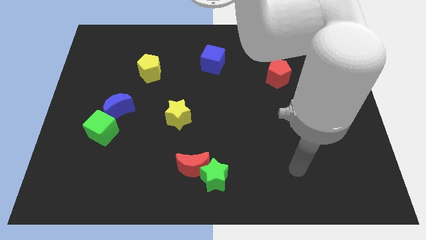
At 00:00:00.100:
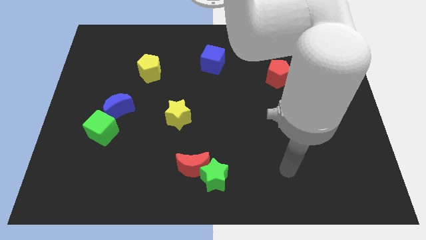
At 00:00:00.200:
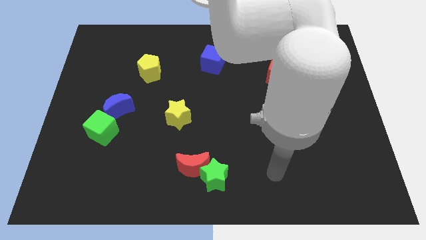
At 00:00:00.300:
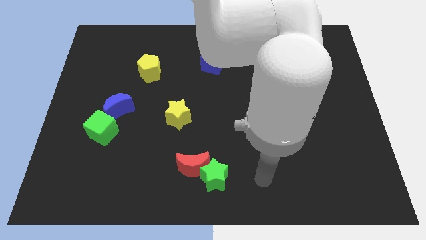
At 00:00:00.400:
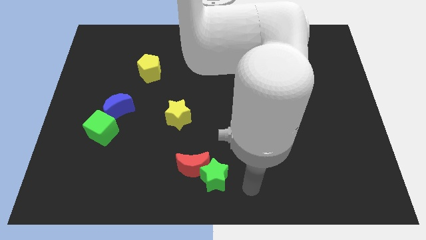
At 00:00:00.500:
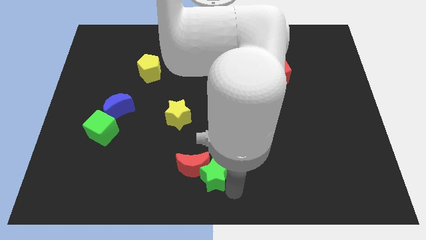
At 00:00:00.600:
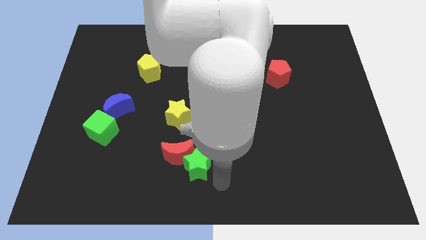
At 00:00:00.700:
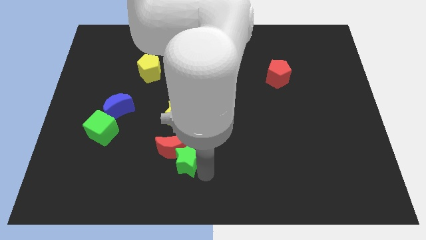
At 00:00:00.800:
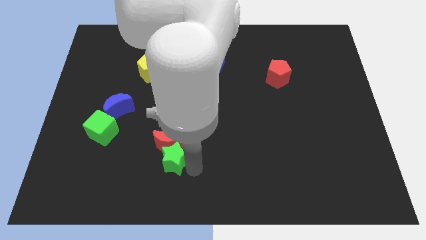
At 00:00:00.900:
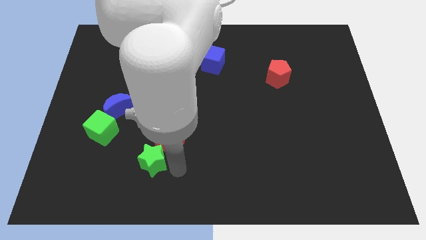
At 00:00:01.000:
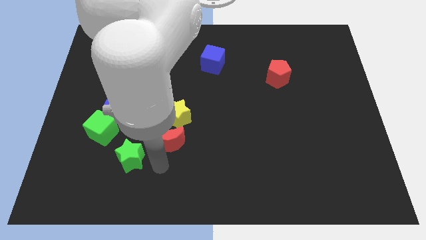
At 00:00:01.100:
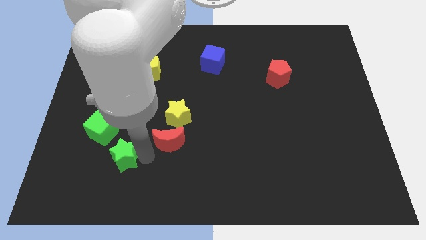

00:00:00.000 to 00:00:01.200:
pull the red moon apart from the green star

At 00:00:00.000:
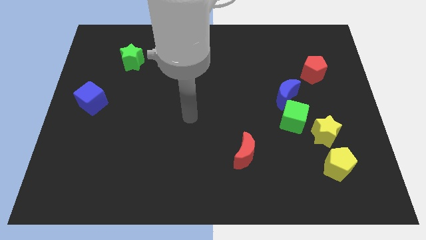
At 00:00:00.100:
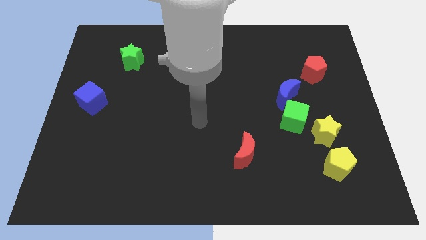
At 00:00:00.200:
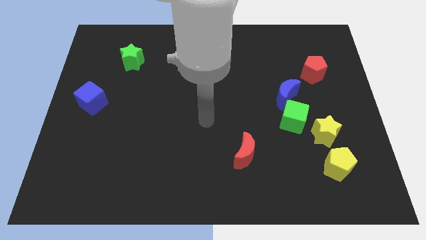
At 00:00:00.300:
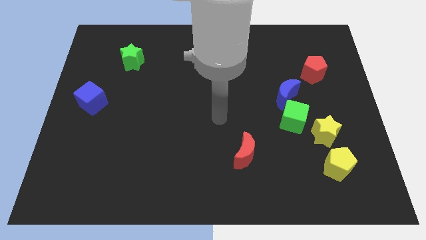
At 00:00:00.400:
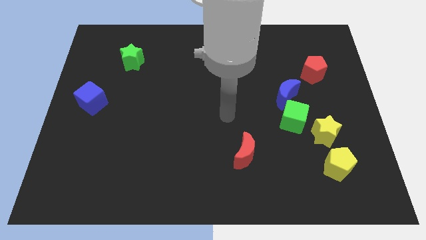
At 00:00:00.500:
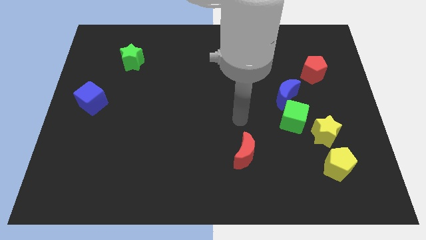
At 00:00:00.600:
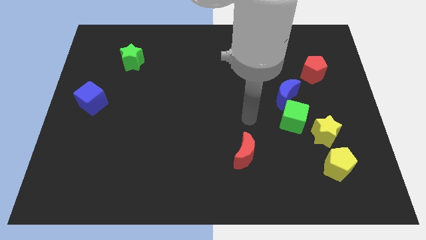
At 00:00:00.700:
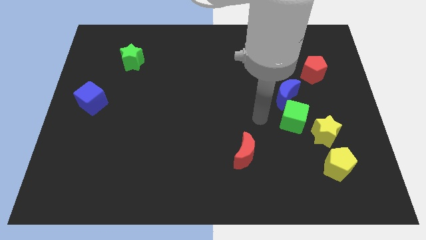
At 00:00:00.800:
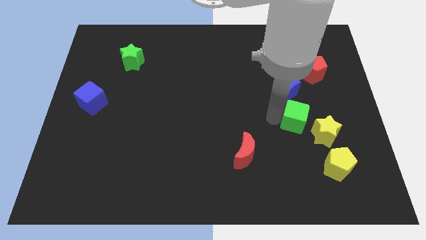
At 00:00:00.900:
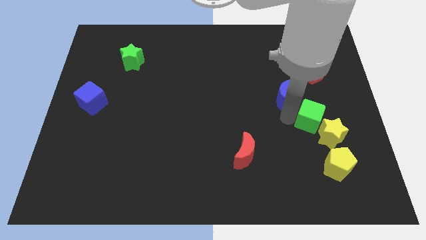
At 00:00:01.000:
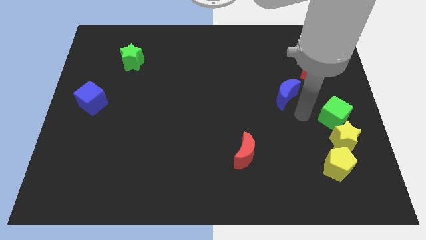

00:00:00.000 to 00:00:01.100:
separate the blue moon from the green cube

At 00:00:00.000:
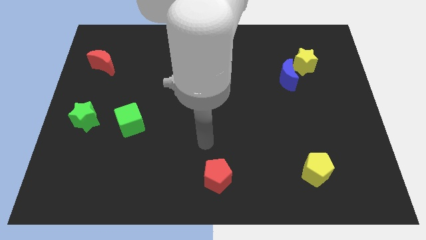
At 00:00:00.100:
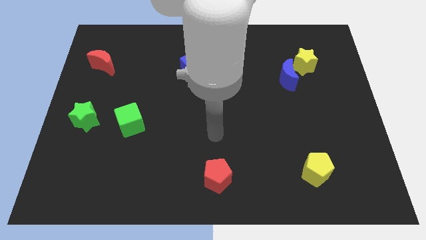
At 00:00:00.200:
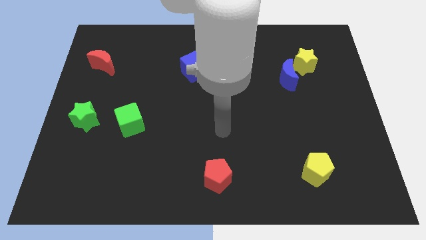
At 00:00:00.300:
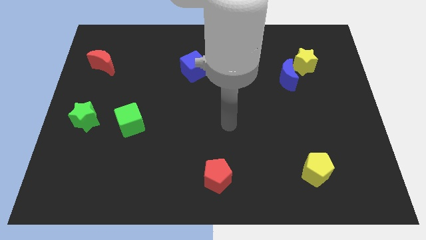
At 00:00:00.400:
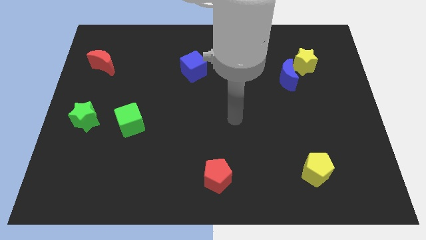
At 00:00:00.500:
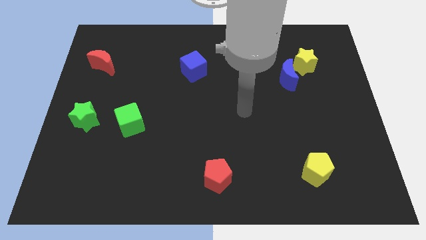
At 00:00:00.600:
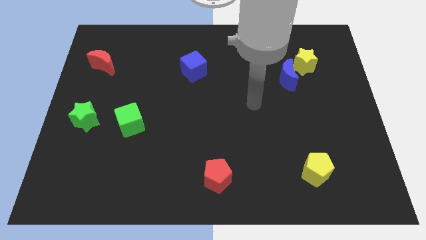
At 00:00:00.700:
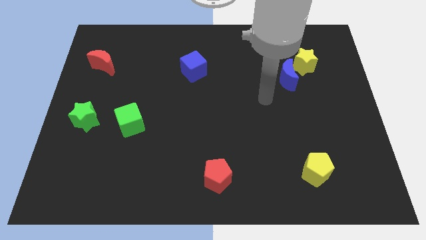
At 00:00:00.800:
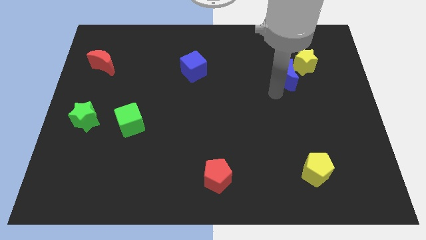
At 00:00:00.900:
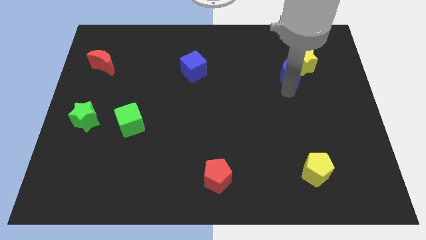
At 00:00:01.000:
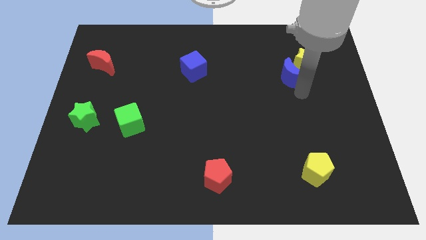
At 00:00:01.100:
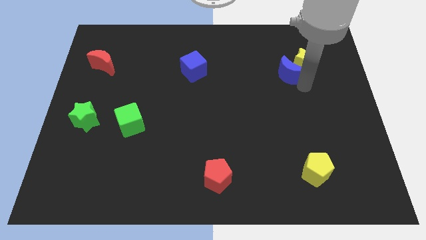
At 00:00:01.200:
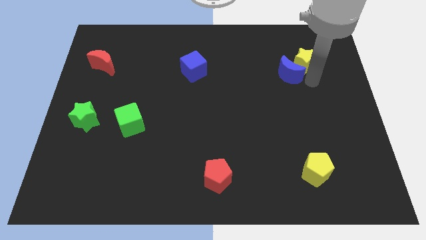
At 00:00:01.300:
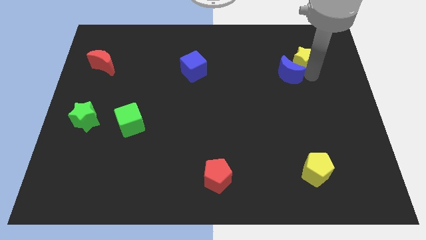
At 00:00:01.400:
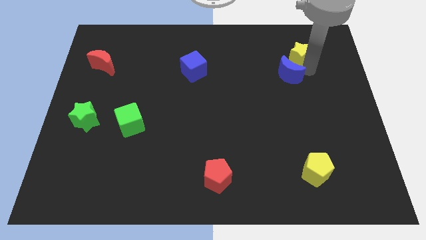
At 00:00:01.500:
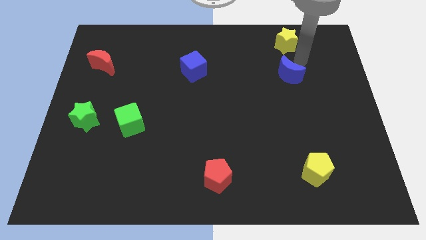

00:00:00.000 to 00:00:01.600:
separate the blue moon from the yellow star

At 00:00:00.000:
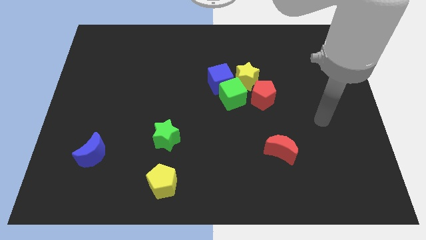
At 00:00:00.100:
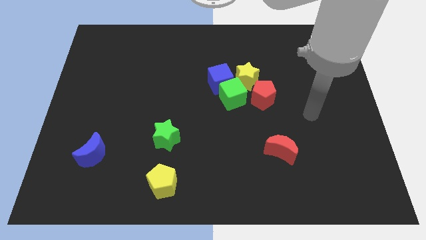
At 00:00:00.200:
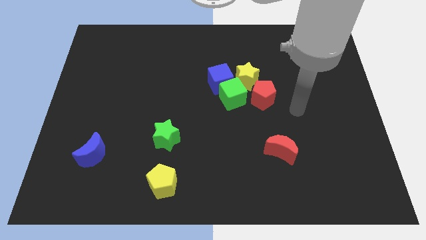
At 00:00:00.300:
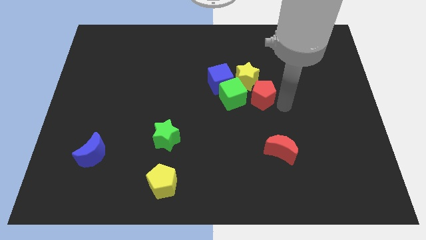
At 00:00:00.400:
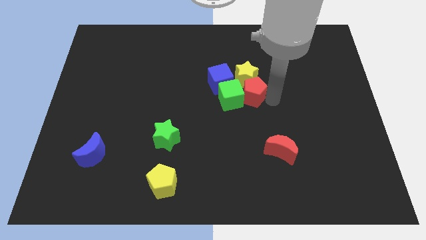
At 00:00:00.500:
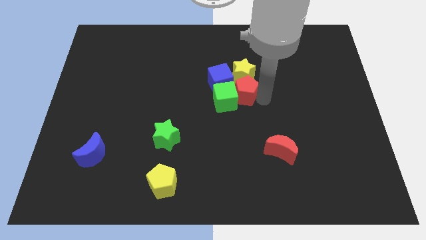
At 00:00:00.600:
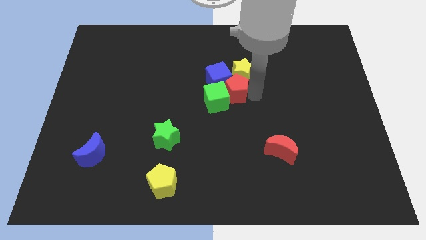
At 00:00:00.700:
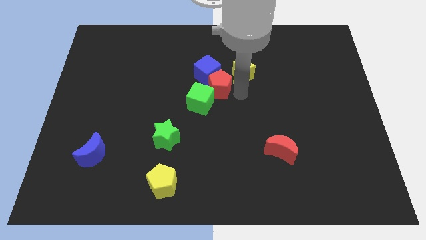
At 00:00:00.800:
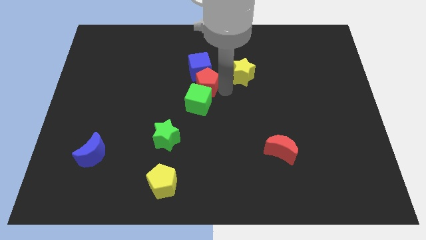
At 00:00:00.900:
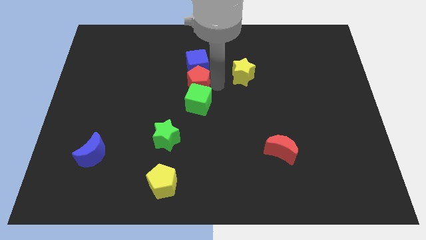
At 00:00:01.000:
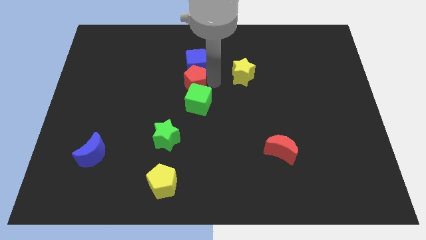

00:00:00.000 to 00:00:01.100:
separate the blue cube from the green cube and yellow star

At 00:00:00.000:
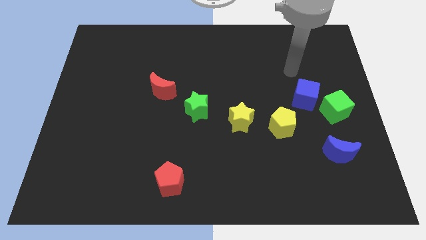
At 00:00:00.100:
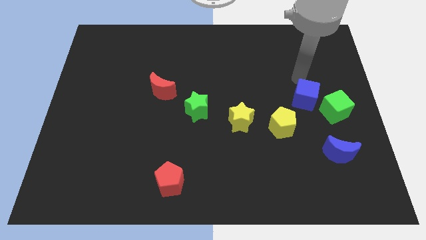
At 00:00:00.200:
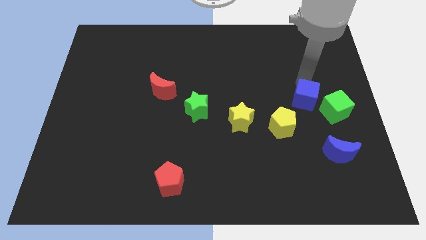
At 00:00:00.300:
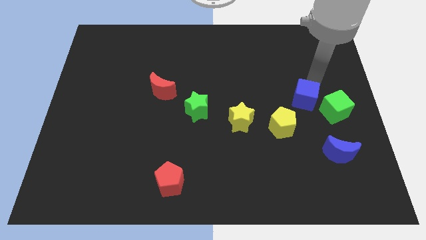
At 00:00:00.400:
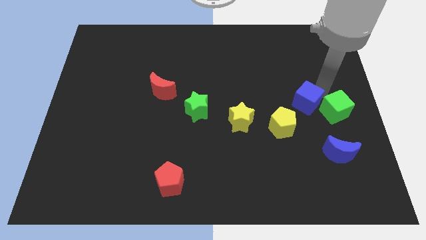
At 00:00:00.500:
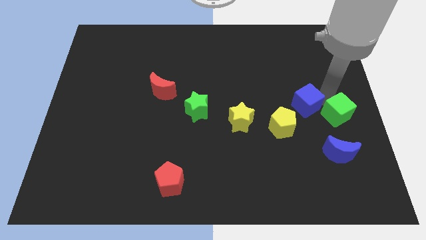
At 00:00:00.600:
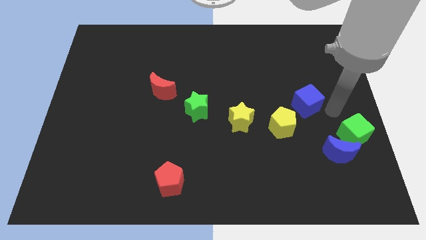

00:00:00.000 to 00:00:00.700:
separate the blue cube from the green cube

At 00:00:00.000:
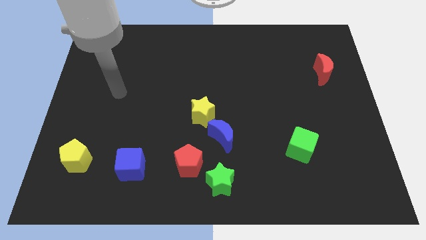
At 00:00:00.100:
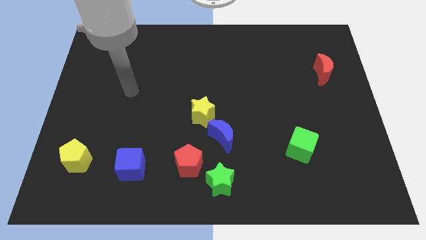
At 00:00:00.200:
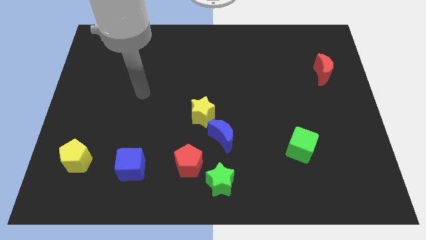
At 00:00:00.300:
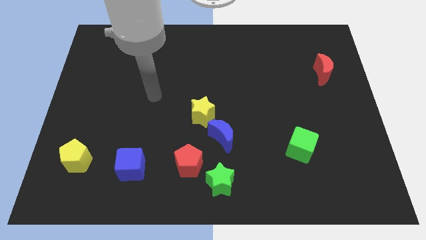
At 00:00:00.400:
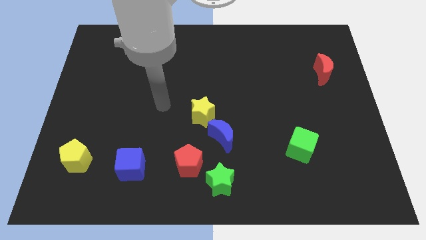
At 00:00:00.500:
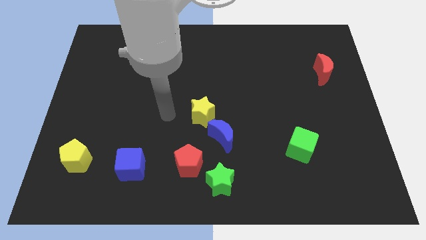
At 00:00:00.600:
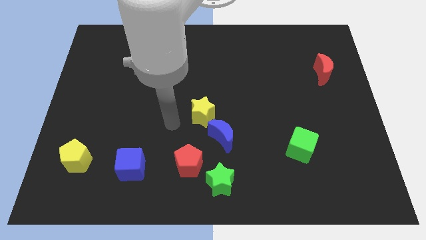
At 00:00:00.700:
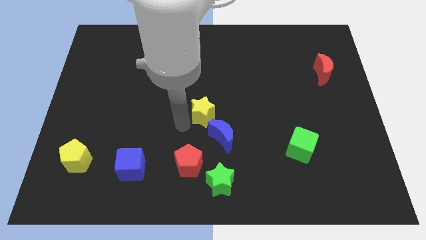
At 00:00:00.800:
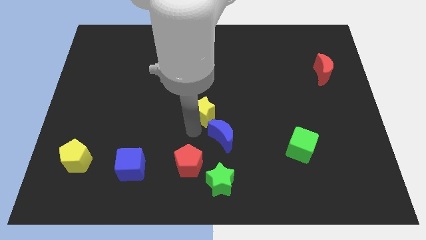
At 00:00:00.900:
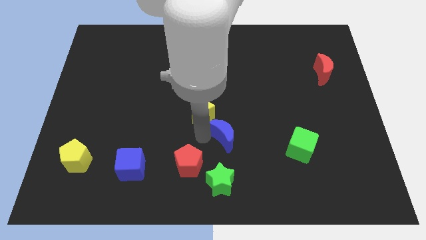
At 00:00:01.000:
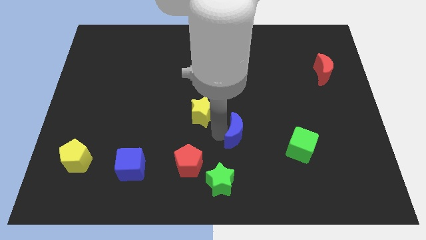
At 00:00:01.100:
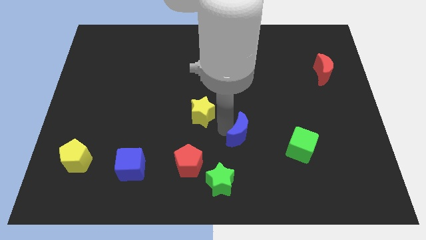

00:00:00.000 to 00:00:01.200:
move the yellow star away from the blue moon

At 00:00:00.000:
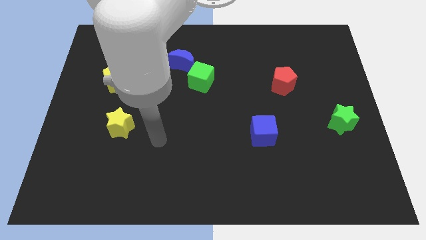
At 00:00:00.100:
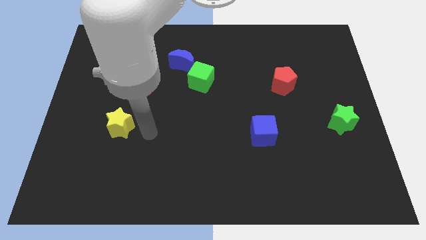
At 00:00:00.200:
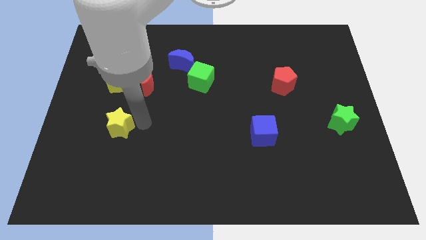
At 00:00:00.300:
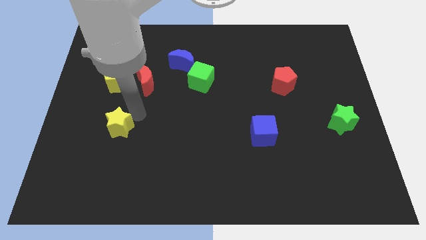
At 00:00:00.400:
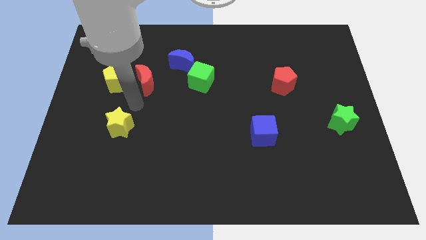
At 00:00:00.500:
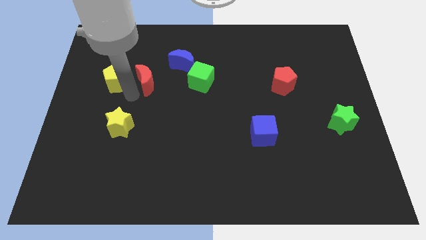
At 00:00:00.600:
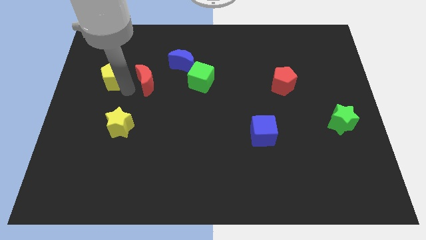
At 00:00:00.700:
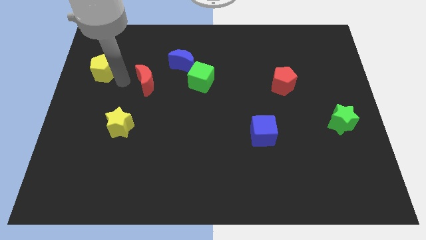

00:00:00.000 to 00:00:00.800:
pull the red moon apart from the yellow pentagon

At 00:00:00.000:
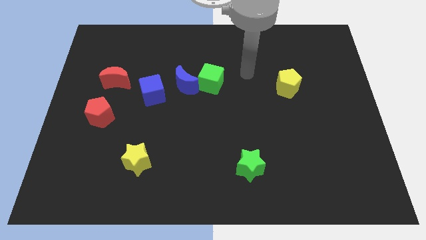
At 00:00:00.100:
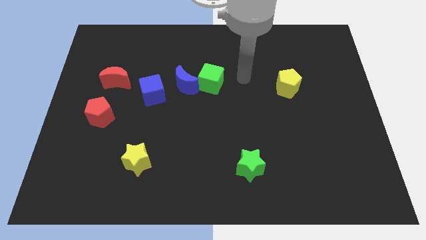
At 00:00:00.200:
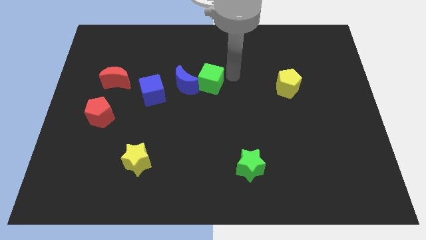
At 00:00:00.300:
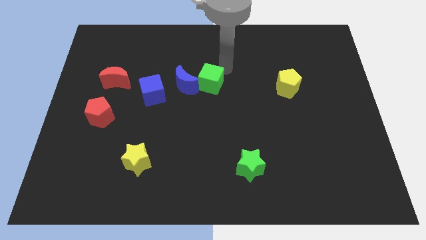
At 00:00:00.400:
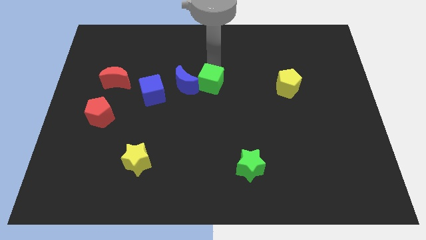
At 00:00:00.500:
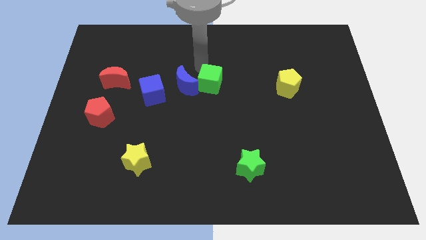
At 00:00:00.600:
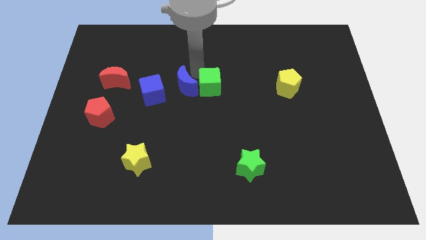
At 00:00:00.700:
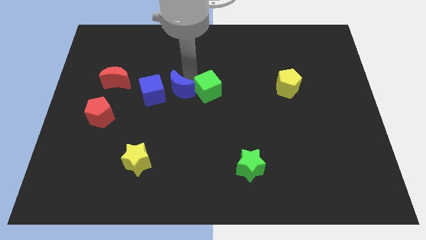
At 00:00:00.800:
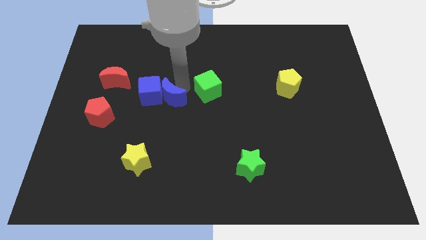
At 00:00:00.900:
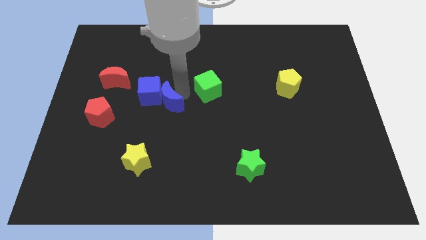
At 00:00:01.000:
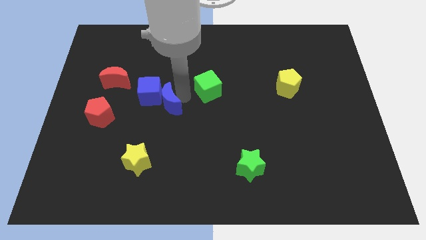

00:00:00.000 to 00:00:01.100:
move the green cube away from the blue moon

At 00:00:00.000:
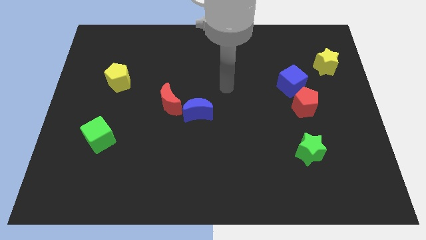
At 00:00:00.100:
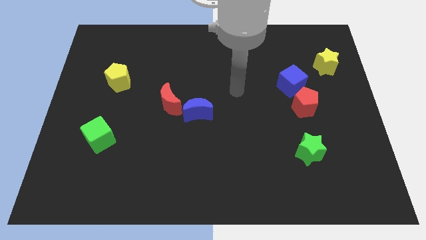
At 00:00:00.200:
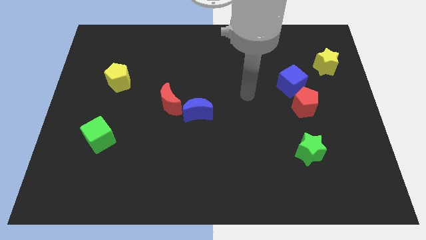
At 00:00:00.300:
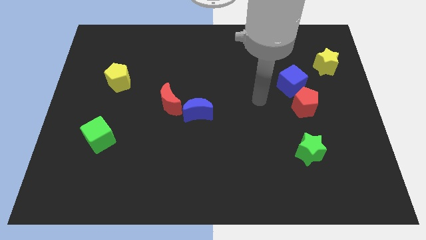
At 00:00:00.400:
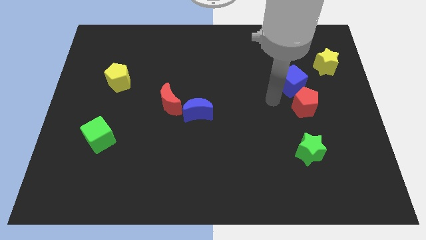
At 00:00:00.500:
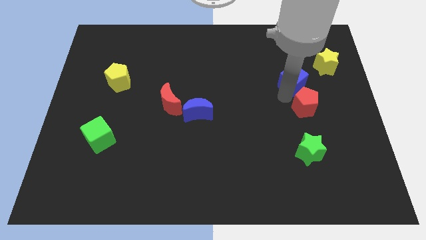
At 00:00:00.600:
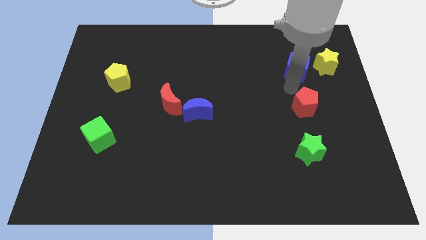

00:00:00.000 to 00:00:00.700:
pull the red pentagon apart from the blue cube
